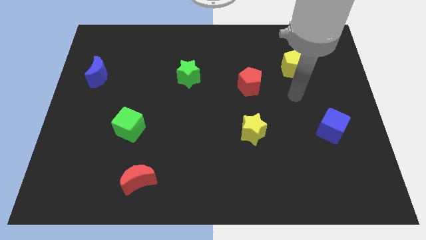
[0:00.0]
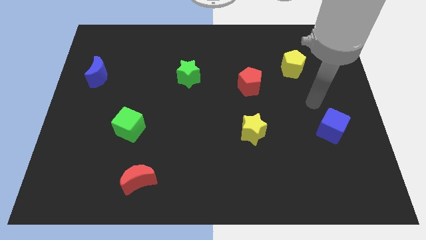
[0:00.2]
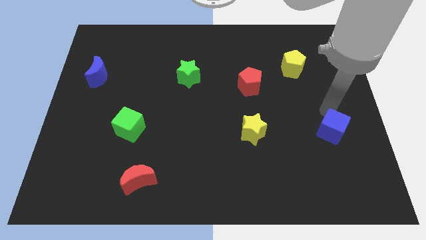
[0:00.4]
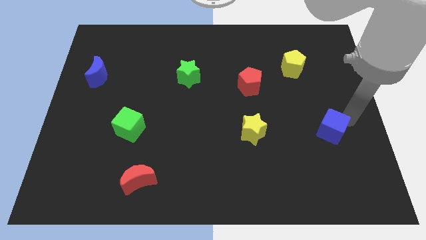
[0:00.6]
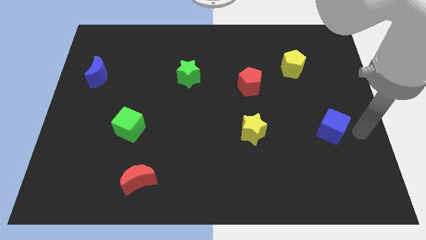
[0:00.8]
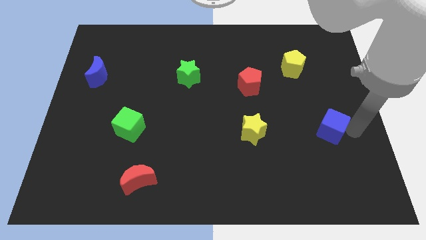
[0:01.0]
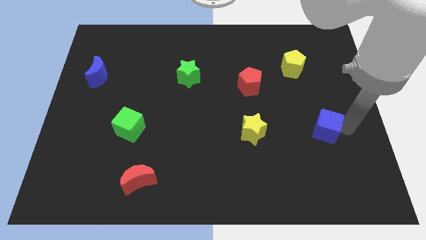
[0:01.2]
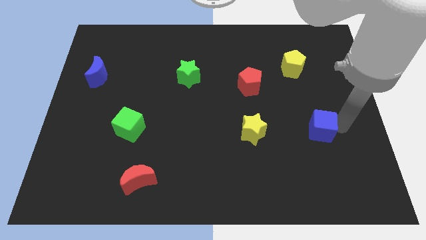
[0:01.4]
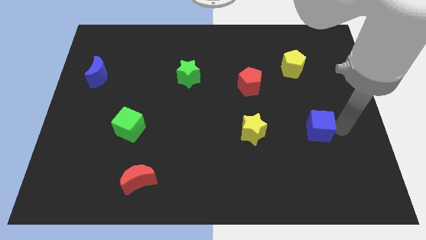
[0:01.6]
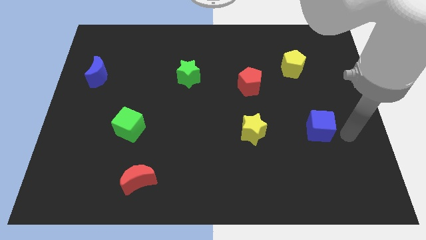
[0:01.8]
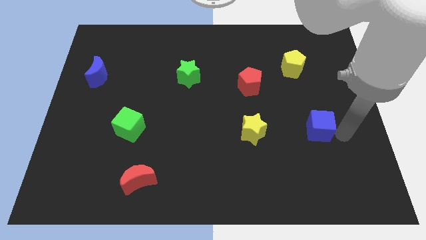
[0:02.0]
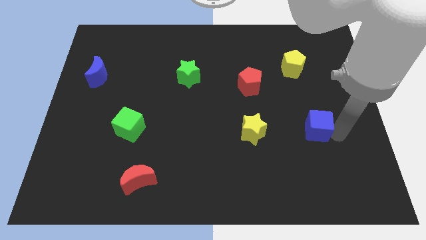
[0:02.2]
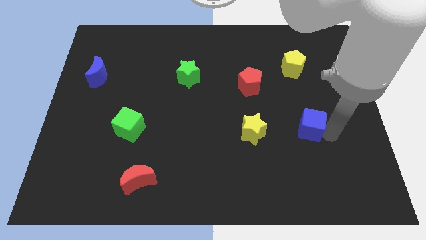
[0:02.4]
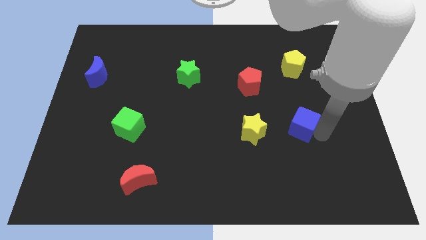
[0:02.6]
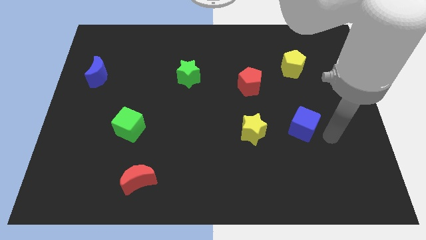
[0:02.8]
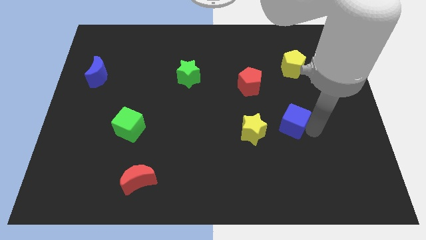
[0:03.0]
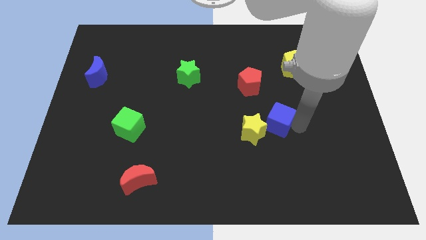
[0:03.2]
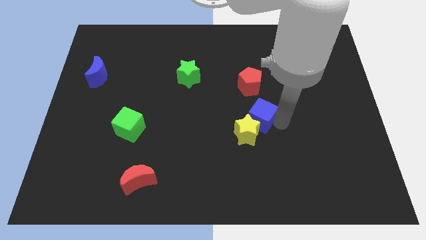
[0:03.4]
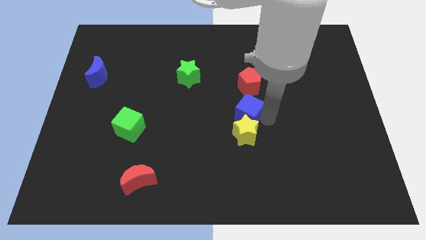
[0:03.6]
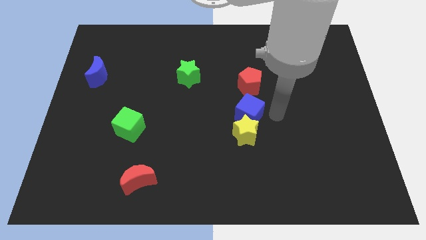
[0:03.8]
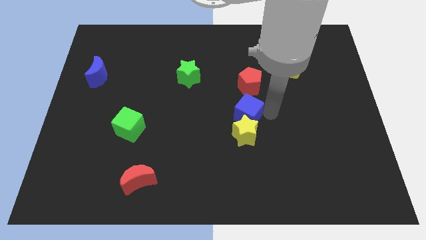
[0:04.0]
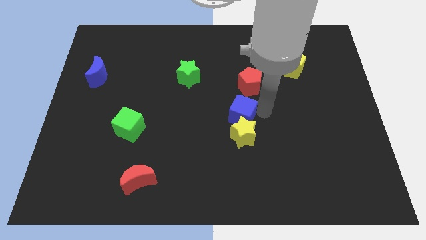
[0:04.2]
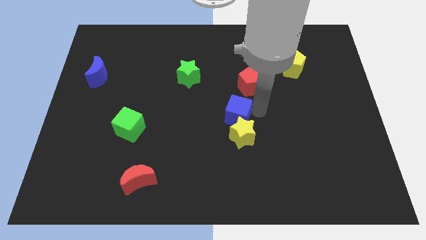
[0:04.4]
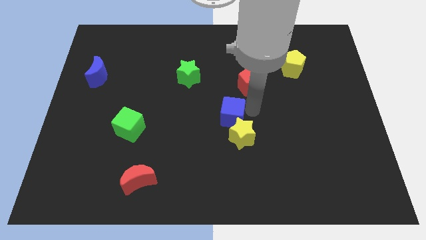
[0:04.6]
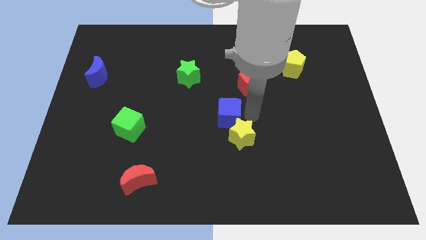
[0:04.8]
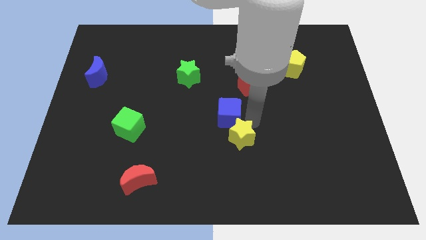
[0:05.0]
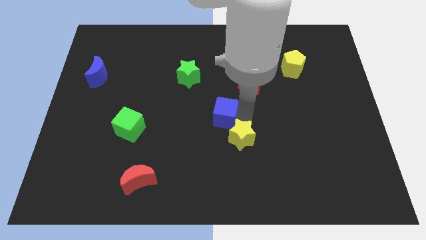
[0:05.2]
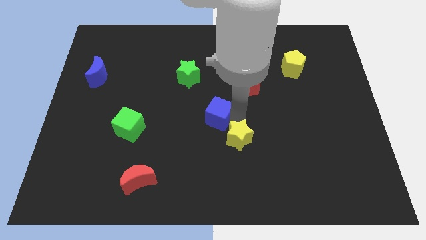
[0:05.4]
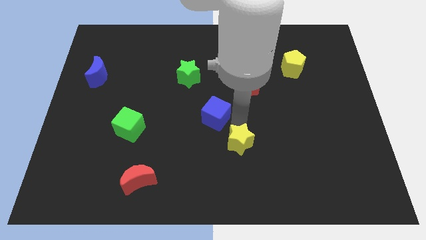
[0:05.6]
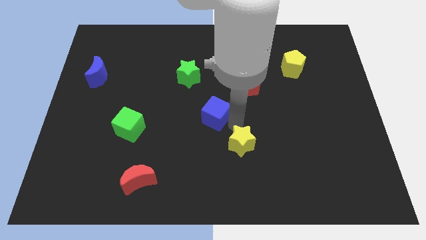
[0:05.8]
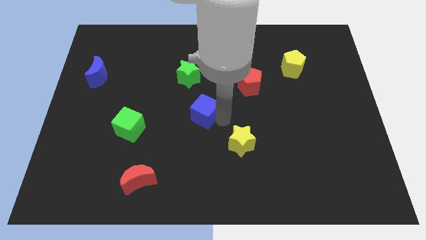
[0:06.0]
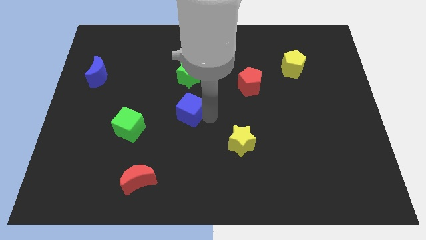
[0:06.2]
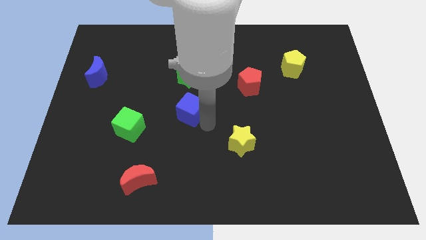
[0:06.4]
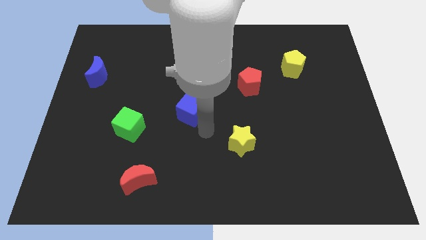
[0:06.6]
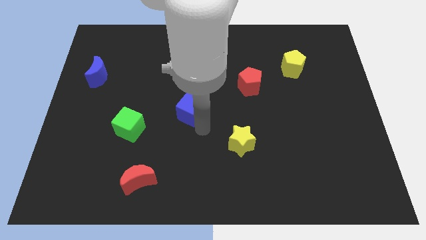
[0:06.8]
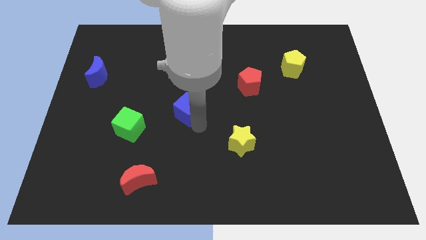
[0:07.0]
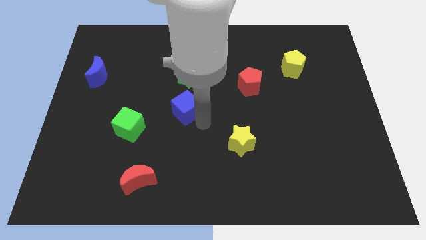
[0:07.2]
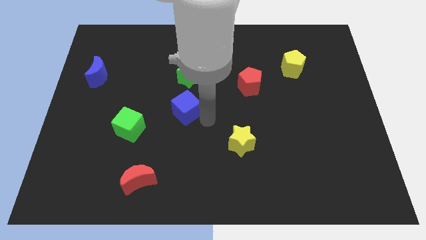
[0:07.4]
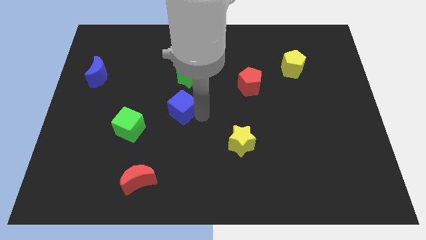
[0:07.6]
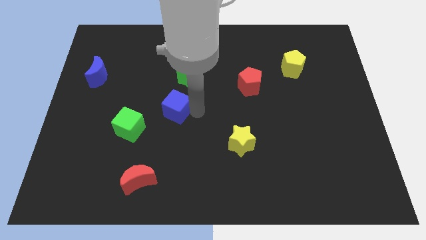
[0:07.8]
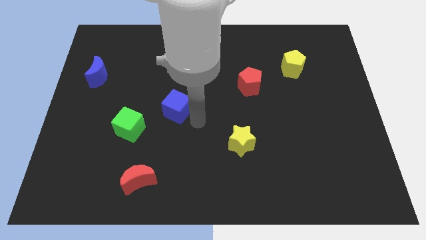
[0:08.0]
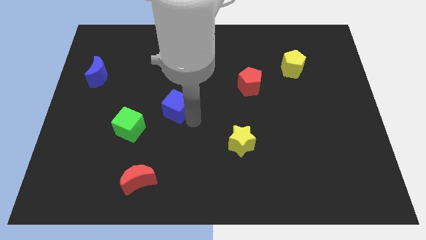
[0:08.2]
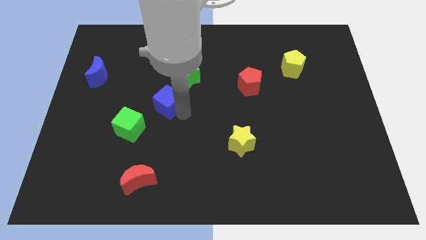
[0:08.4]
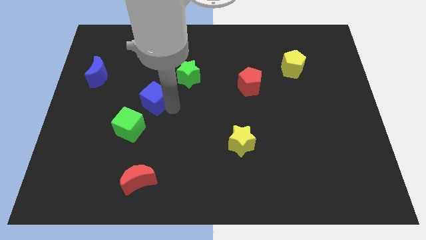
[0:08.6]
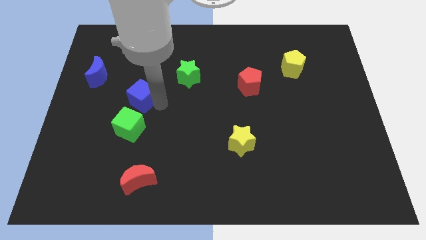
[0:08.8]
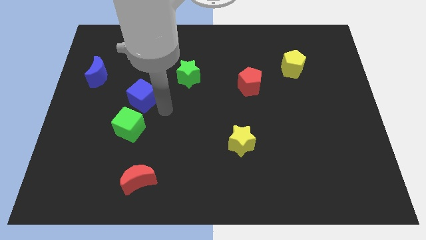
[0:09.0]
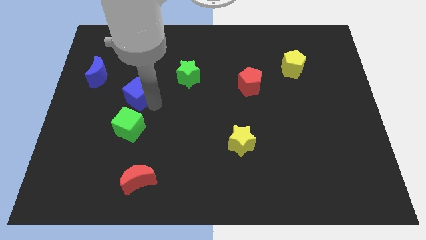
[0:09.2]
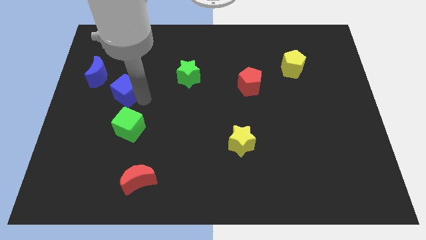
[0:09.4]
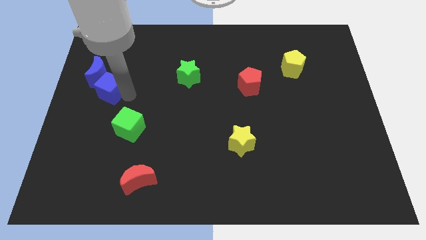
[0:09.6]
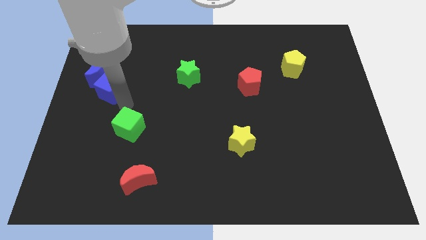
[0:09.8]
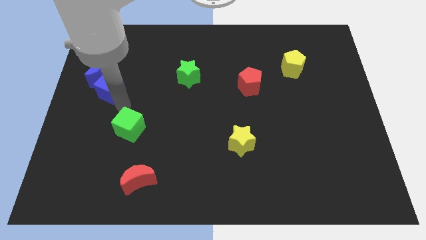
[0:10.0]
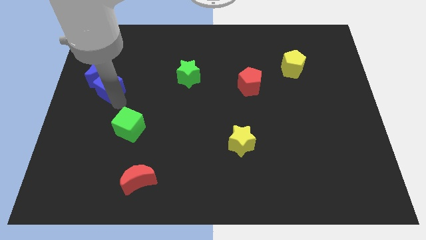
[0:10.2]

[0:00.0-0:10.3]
put the blue cube to the blue moon

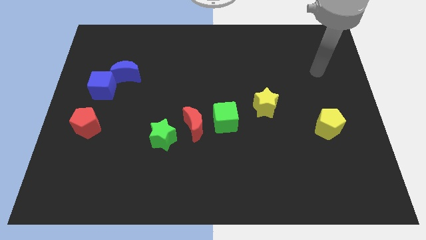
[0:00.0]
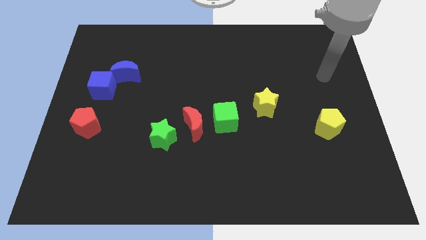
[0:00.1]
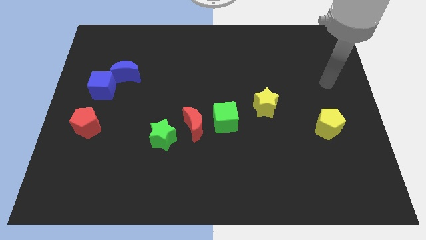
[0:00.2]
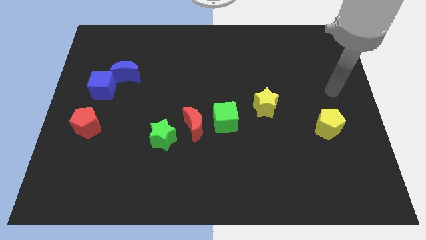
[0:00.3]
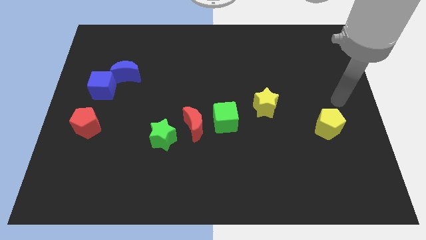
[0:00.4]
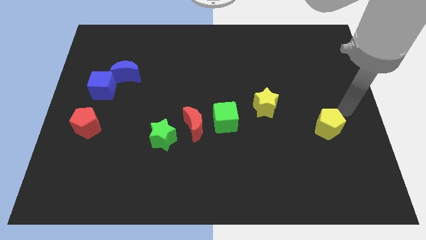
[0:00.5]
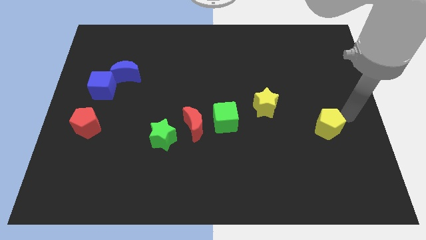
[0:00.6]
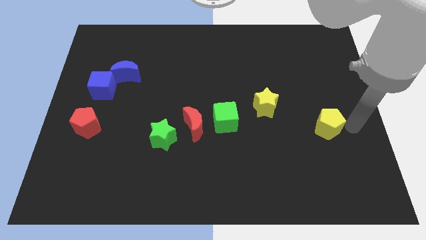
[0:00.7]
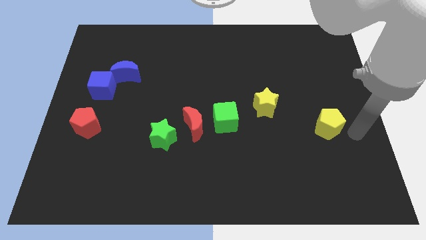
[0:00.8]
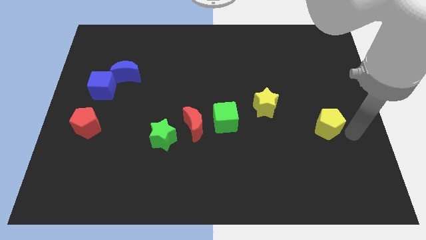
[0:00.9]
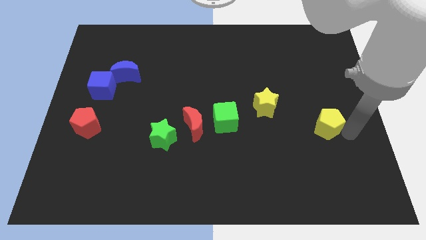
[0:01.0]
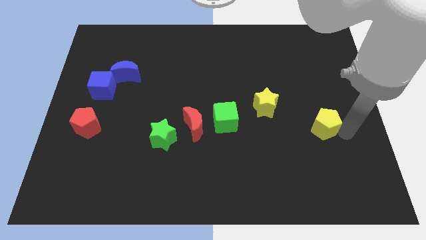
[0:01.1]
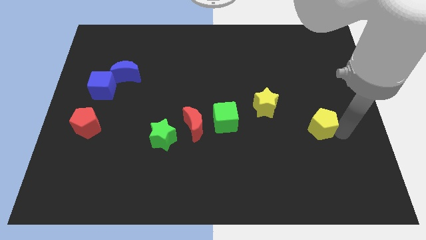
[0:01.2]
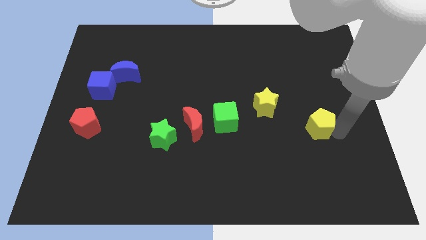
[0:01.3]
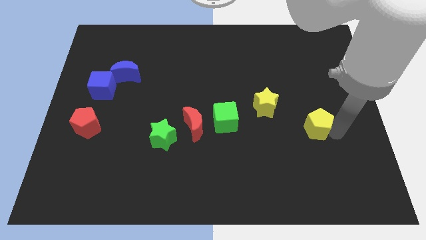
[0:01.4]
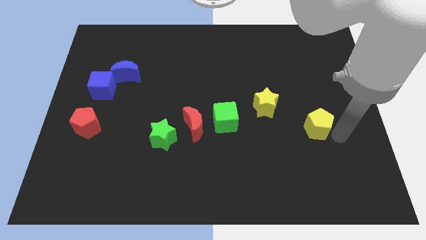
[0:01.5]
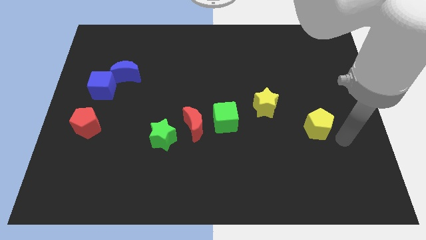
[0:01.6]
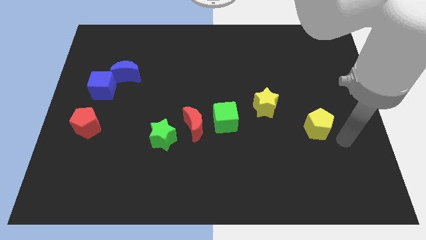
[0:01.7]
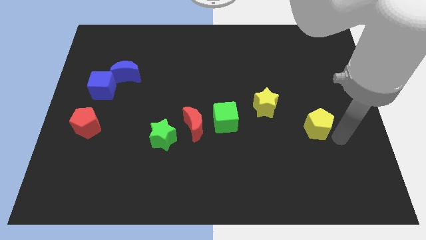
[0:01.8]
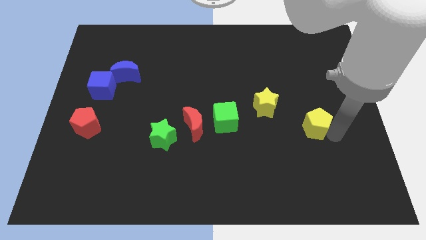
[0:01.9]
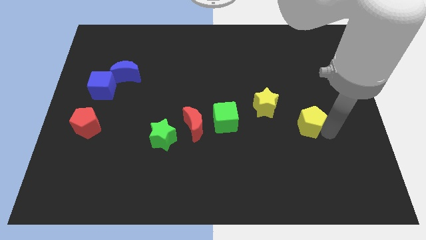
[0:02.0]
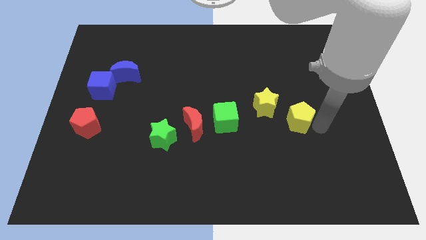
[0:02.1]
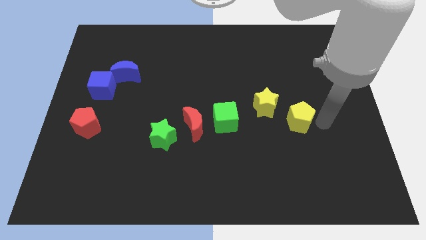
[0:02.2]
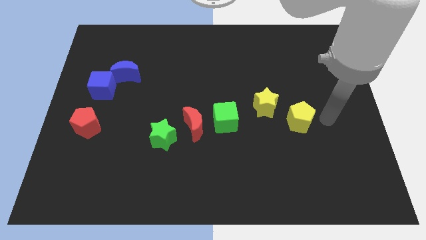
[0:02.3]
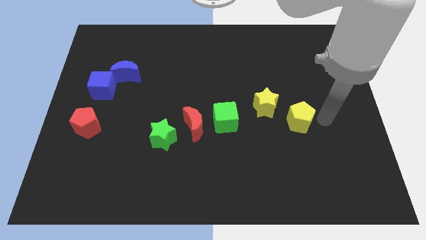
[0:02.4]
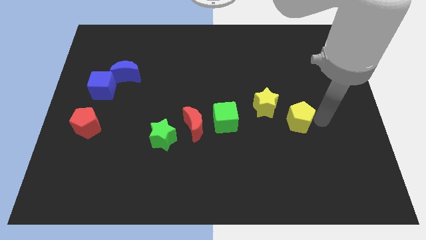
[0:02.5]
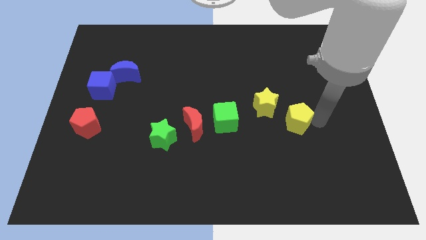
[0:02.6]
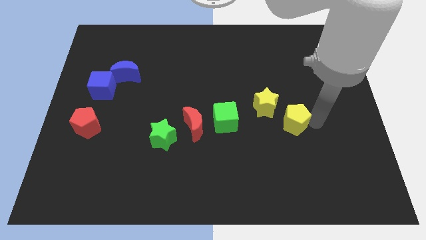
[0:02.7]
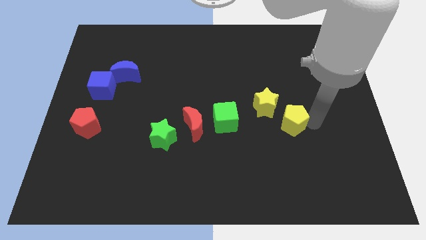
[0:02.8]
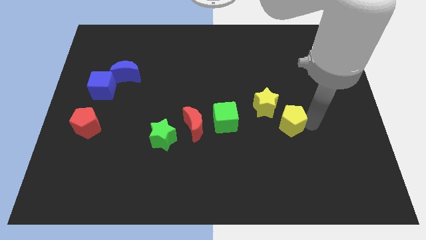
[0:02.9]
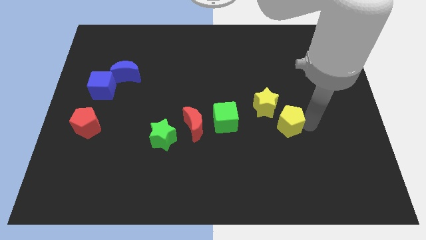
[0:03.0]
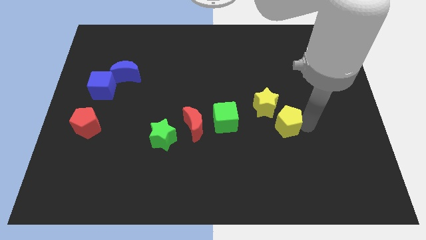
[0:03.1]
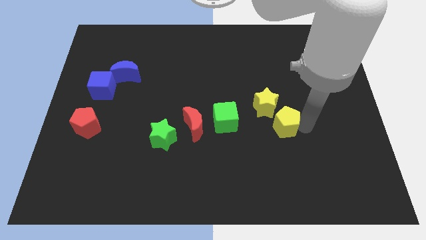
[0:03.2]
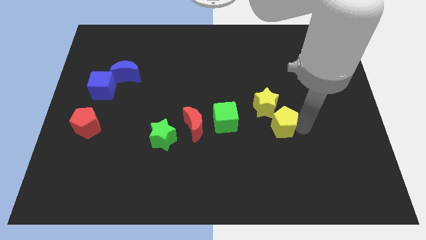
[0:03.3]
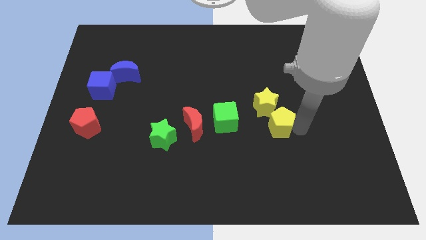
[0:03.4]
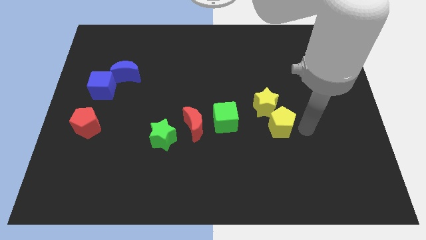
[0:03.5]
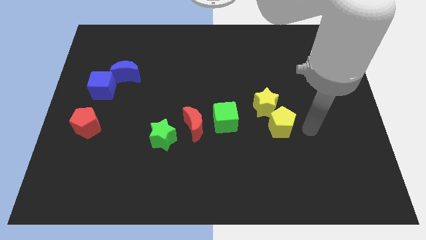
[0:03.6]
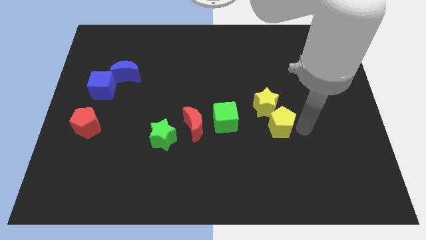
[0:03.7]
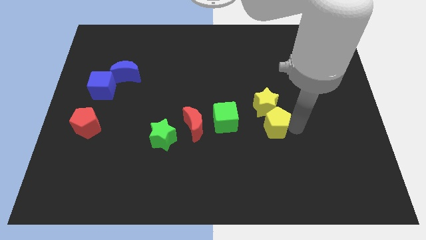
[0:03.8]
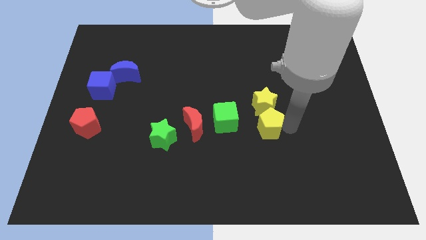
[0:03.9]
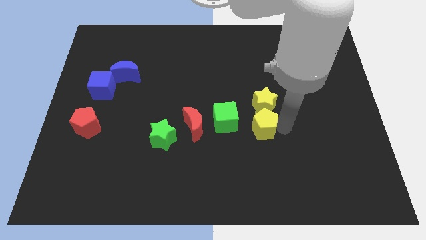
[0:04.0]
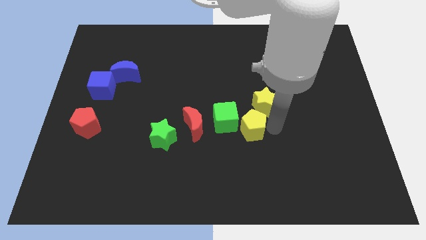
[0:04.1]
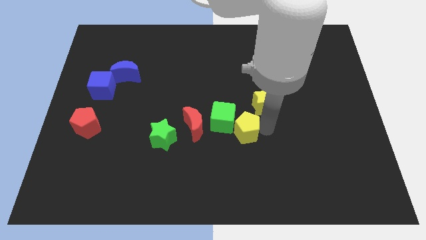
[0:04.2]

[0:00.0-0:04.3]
slide the yellow pentagon towards the green cube
